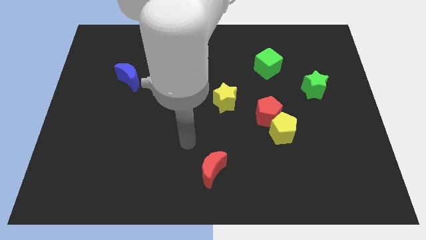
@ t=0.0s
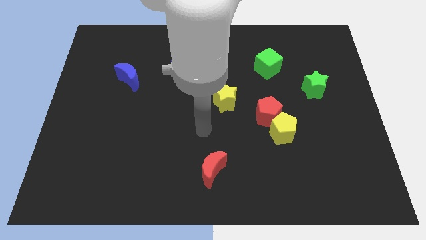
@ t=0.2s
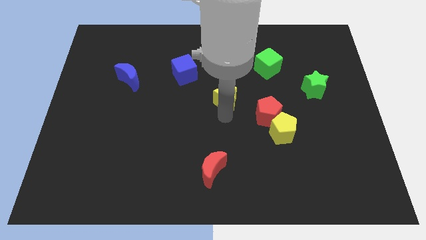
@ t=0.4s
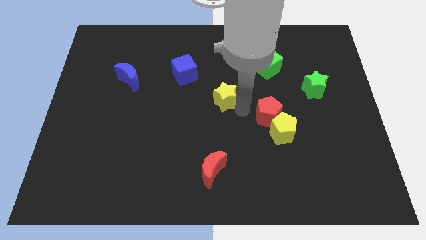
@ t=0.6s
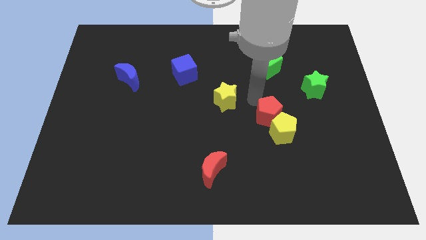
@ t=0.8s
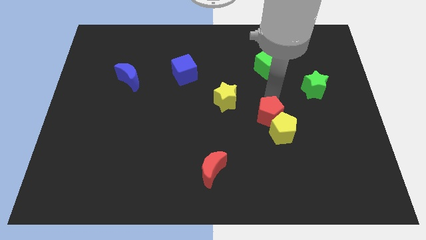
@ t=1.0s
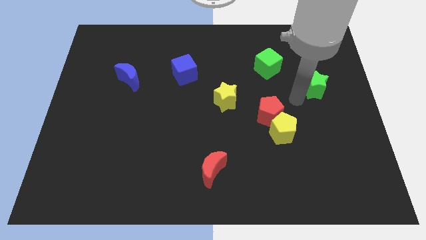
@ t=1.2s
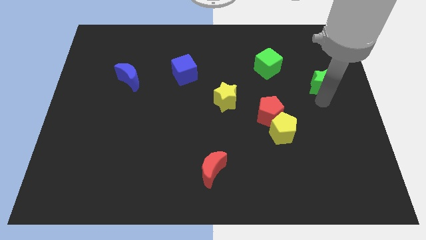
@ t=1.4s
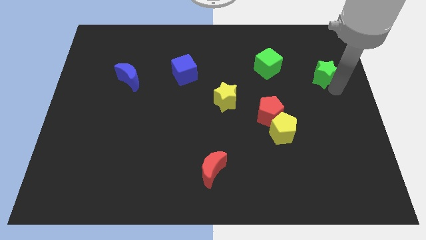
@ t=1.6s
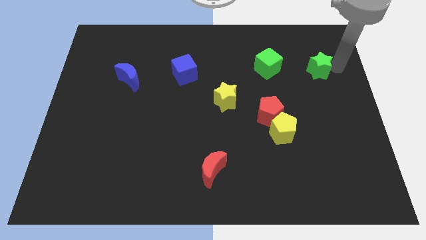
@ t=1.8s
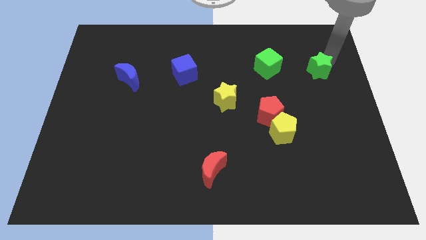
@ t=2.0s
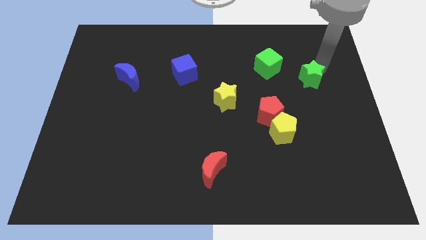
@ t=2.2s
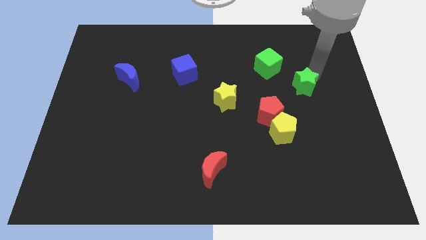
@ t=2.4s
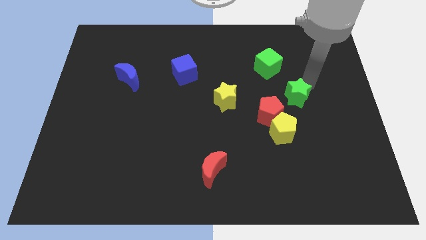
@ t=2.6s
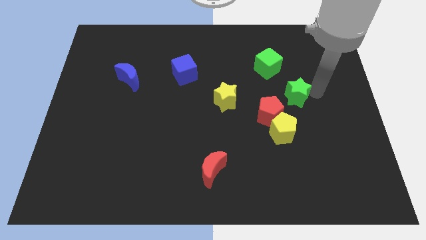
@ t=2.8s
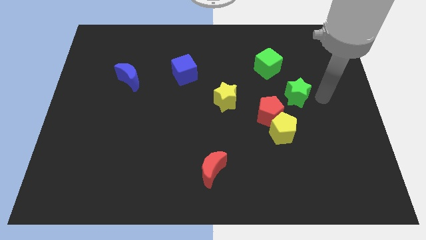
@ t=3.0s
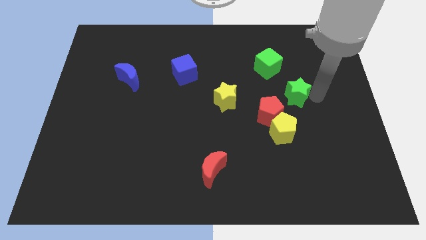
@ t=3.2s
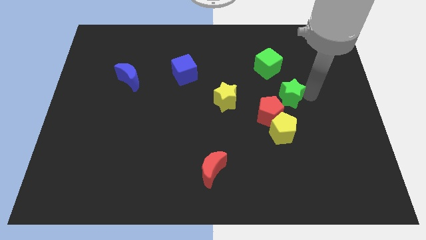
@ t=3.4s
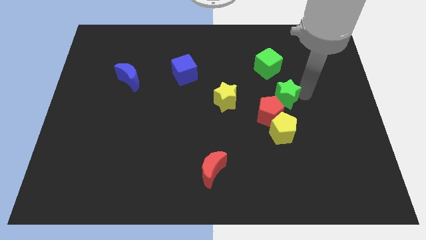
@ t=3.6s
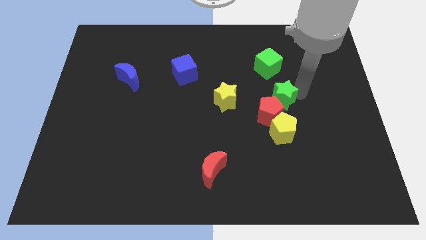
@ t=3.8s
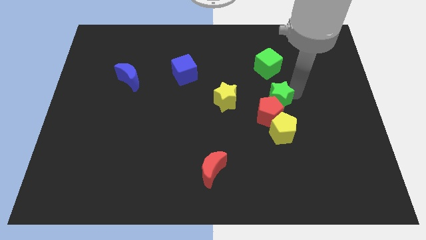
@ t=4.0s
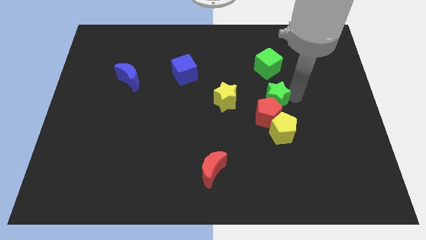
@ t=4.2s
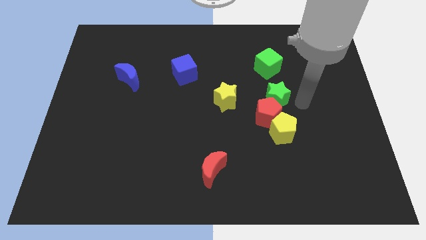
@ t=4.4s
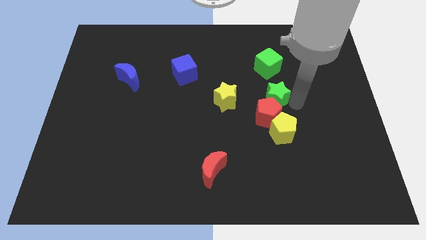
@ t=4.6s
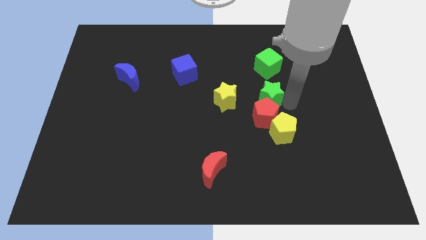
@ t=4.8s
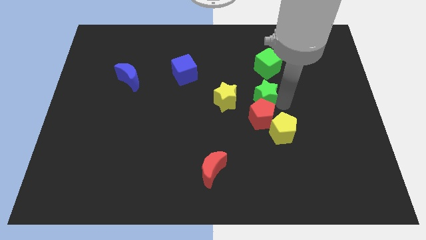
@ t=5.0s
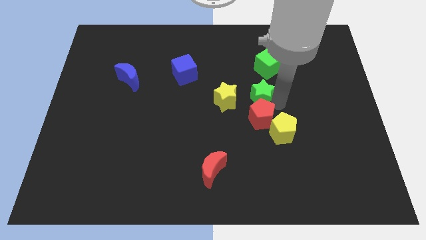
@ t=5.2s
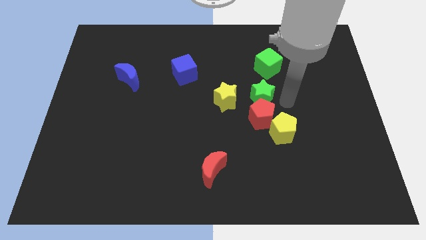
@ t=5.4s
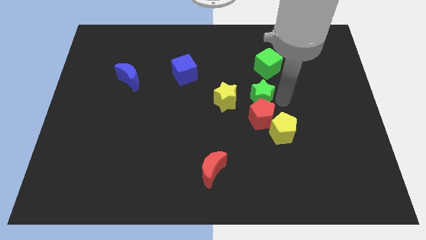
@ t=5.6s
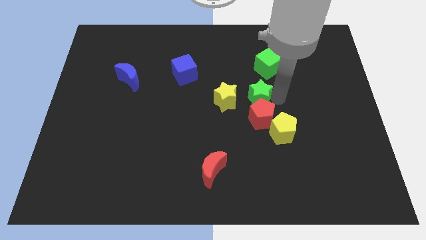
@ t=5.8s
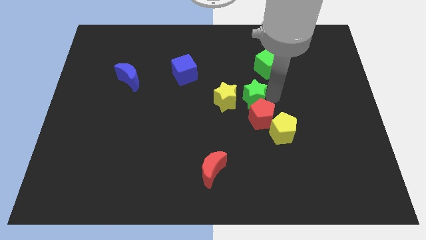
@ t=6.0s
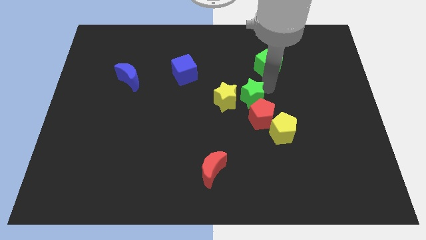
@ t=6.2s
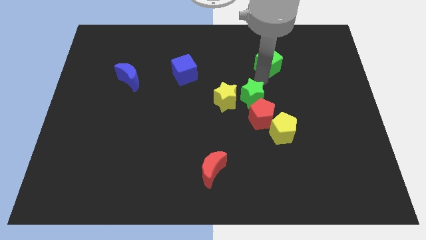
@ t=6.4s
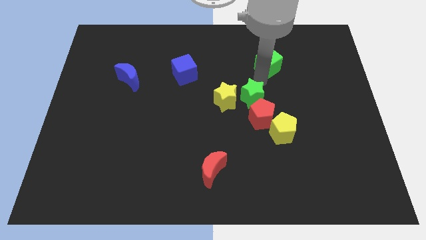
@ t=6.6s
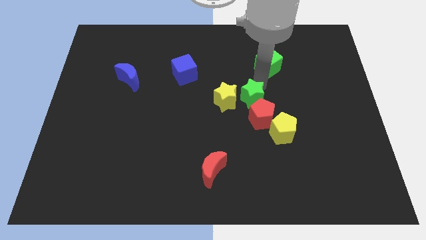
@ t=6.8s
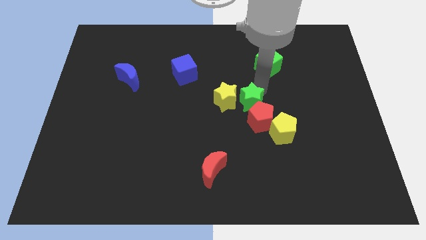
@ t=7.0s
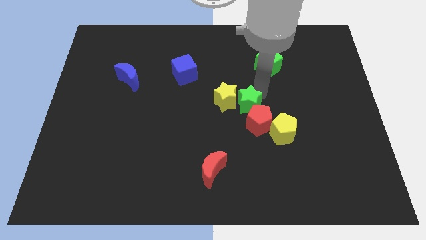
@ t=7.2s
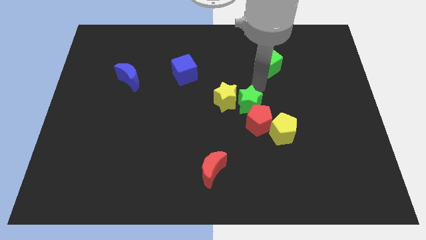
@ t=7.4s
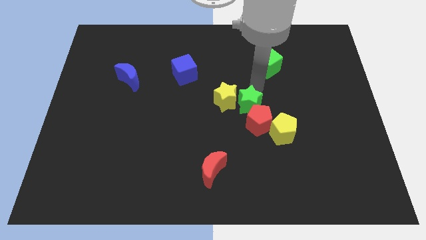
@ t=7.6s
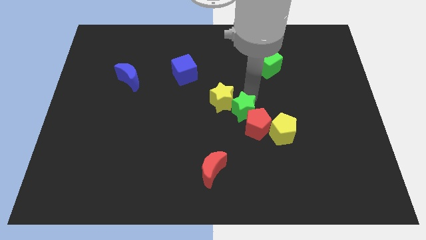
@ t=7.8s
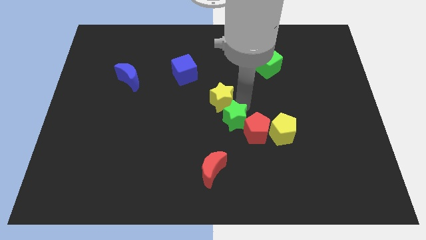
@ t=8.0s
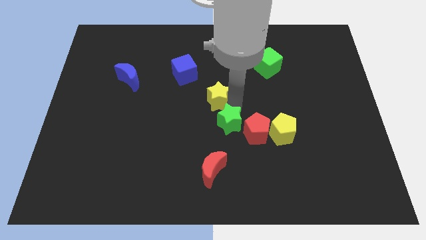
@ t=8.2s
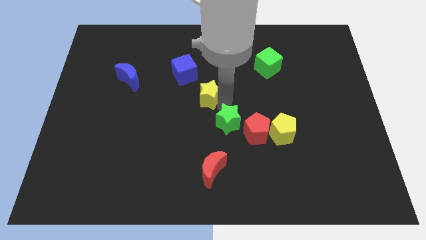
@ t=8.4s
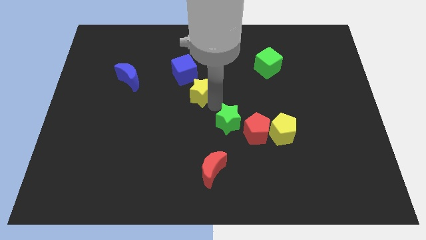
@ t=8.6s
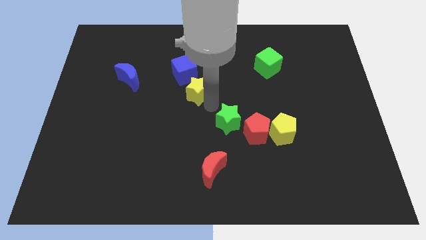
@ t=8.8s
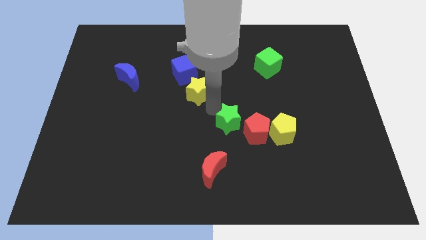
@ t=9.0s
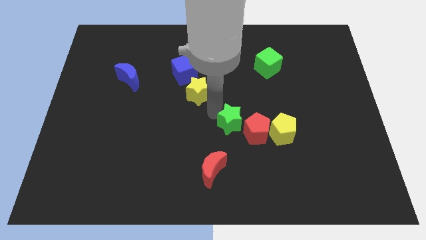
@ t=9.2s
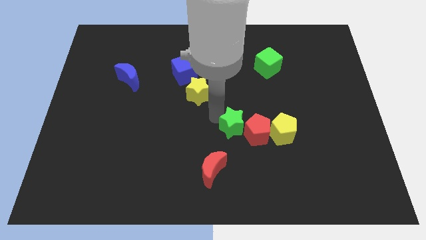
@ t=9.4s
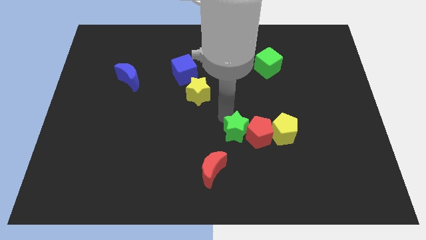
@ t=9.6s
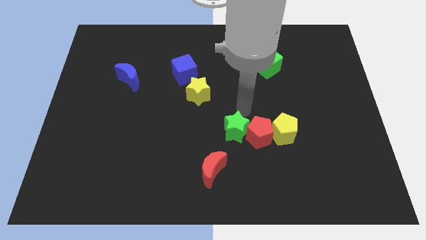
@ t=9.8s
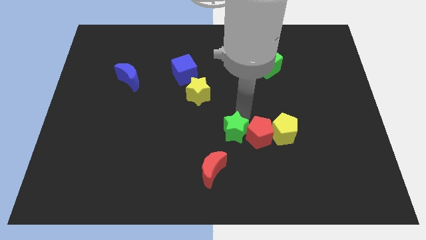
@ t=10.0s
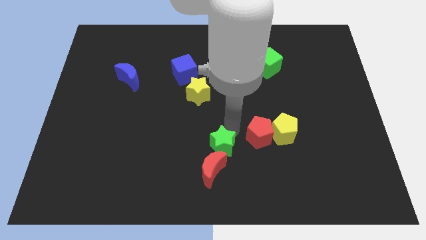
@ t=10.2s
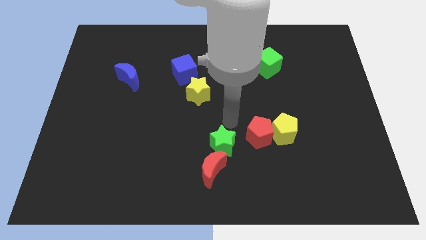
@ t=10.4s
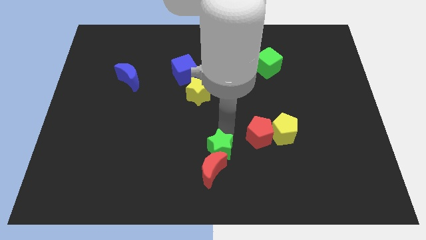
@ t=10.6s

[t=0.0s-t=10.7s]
put the green star close to the red moon

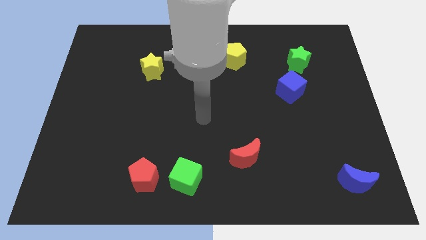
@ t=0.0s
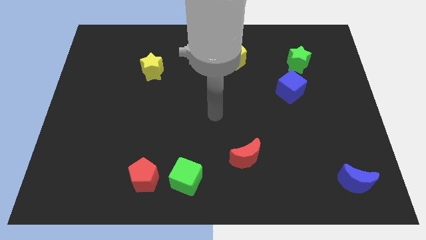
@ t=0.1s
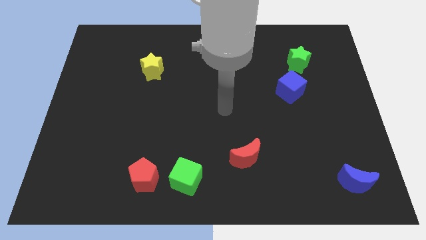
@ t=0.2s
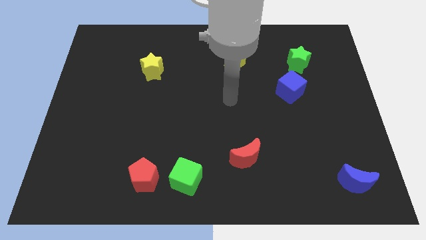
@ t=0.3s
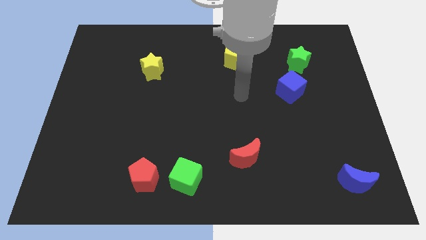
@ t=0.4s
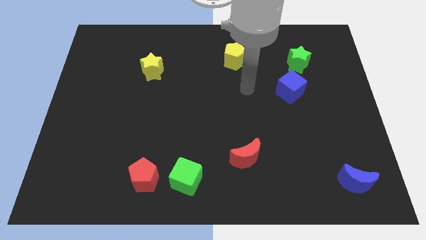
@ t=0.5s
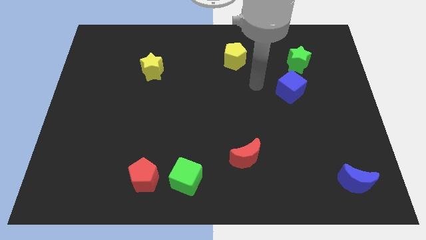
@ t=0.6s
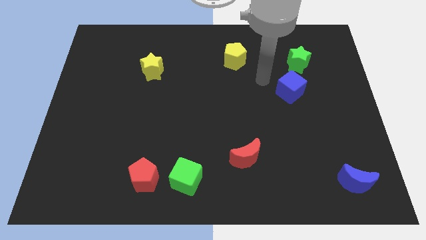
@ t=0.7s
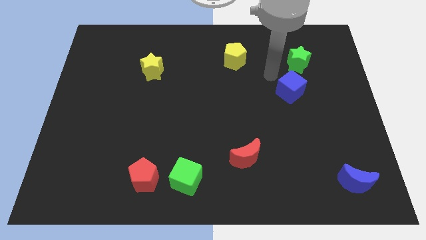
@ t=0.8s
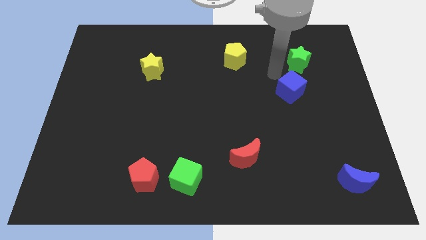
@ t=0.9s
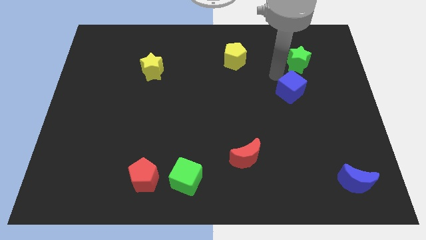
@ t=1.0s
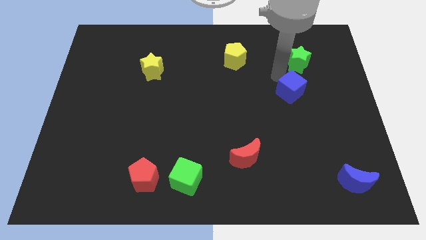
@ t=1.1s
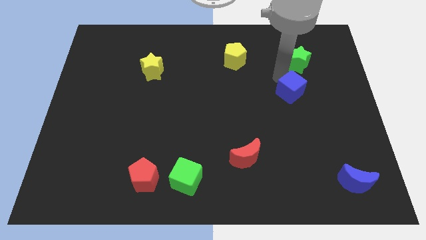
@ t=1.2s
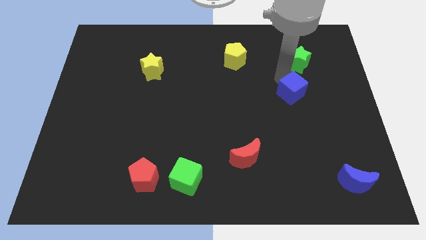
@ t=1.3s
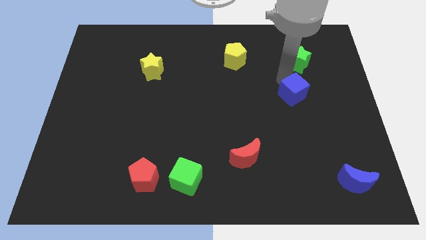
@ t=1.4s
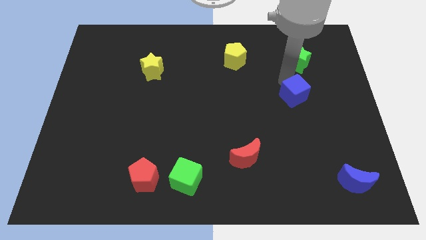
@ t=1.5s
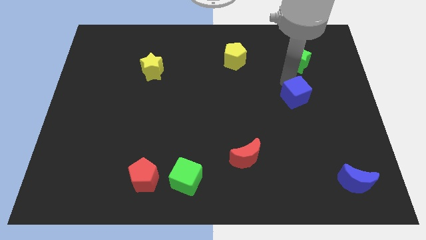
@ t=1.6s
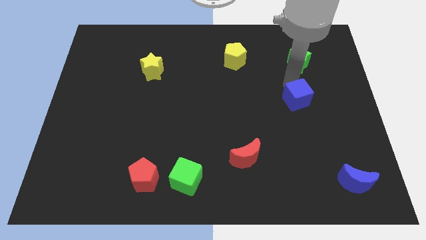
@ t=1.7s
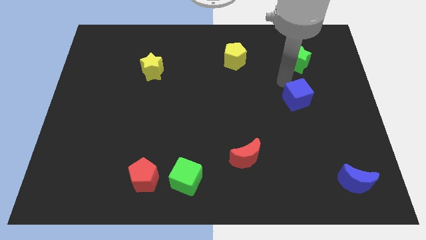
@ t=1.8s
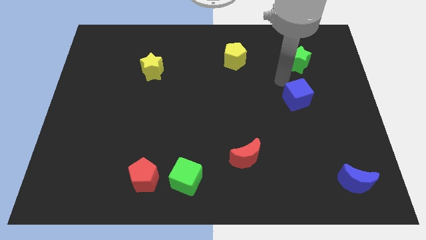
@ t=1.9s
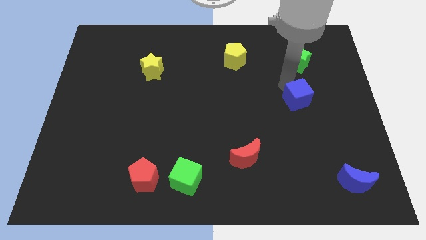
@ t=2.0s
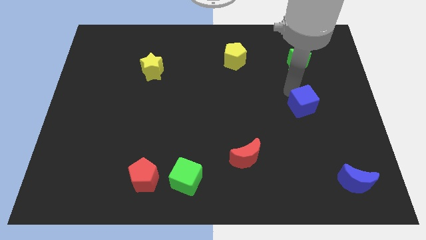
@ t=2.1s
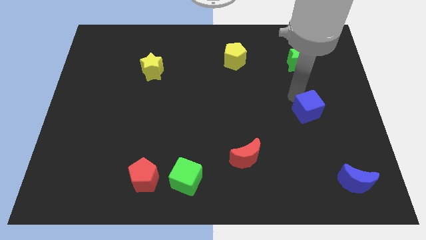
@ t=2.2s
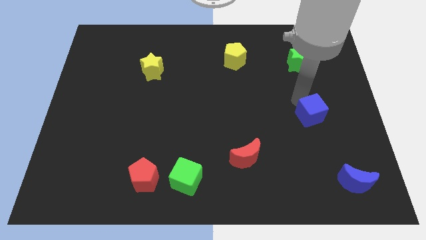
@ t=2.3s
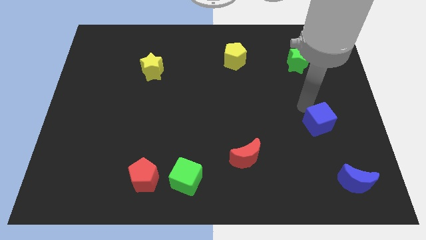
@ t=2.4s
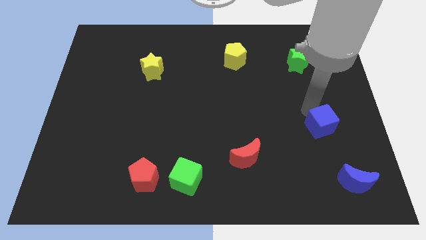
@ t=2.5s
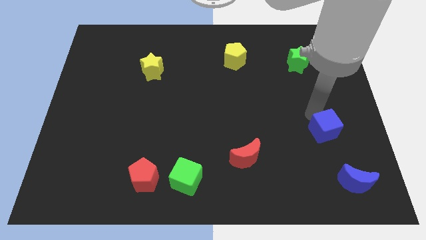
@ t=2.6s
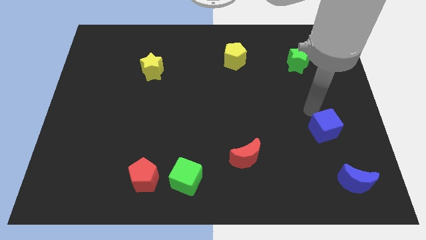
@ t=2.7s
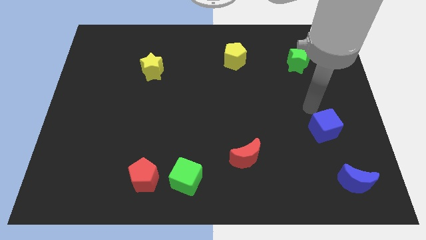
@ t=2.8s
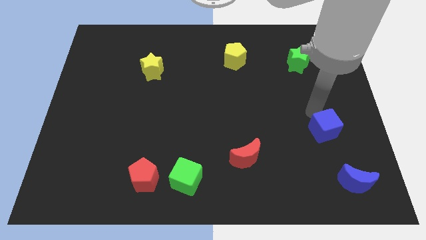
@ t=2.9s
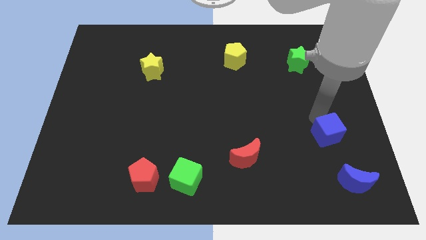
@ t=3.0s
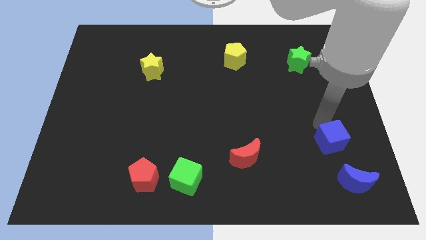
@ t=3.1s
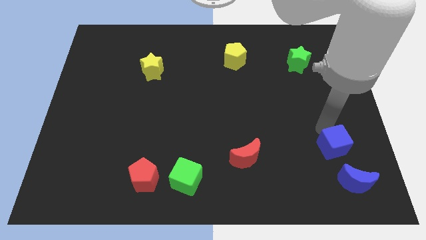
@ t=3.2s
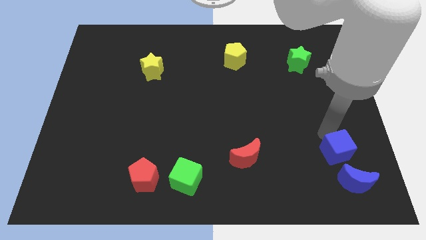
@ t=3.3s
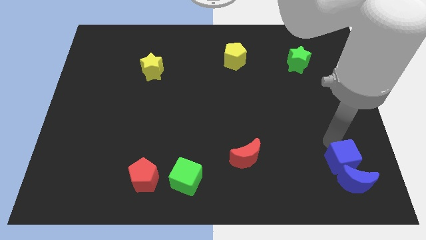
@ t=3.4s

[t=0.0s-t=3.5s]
slide the blue cube towards the blue moon
